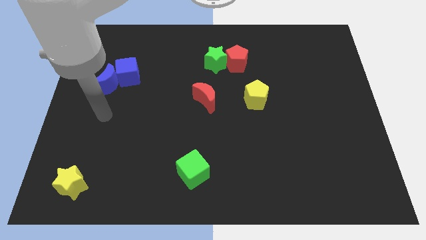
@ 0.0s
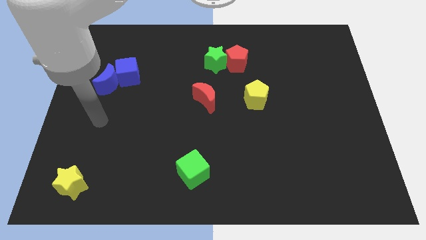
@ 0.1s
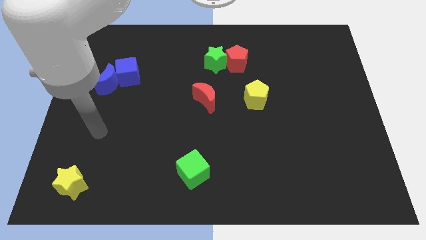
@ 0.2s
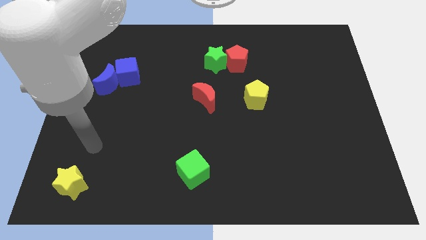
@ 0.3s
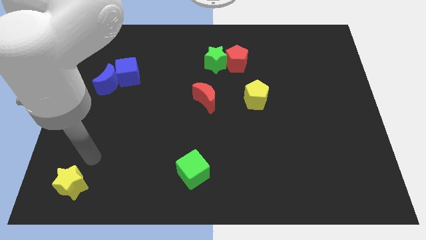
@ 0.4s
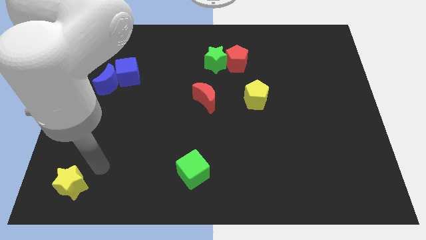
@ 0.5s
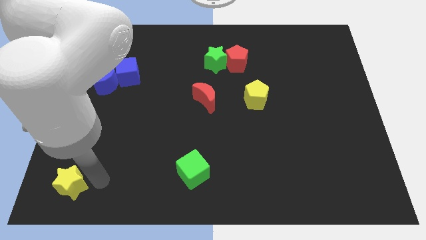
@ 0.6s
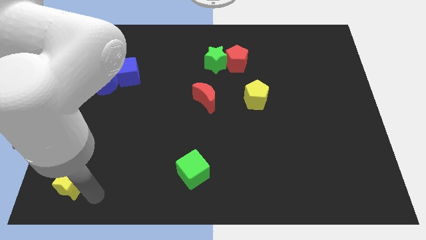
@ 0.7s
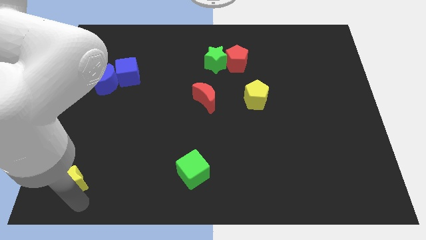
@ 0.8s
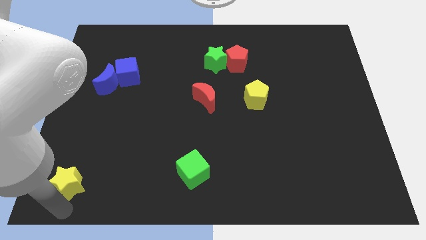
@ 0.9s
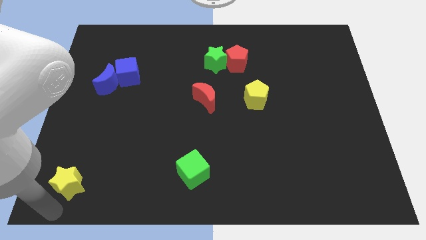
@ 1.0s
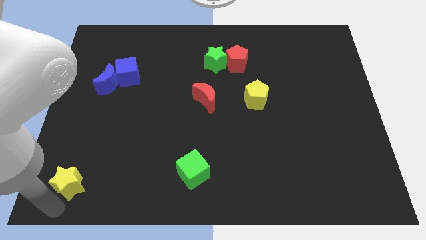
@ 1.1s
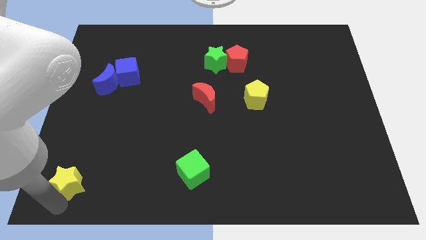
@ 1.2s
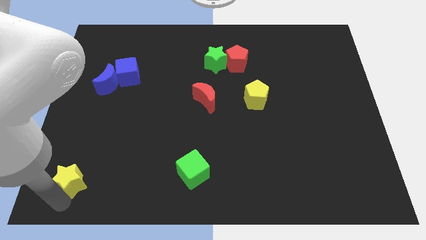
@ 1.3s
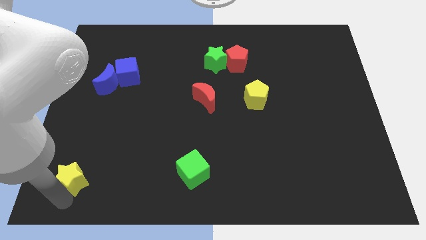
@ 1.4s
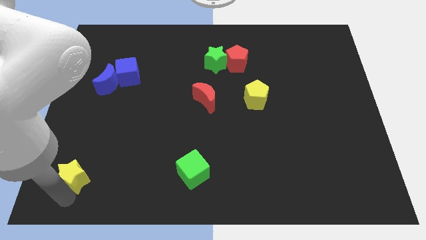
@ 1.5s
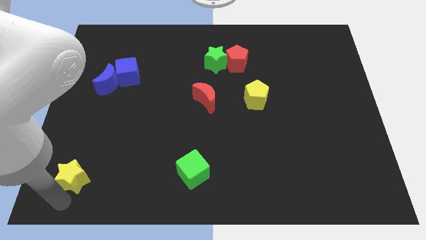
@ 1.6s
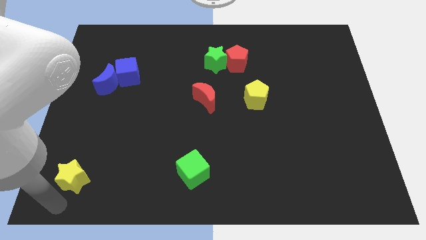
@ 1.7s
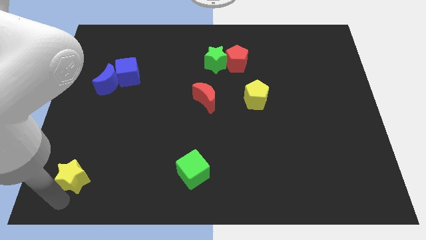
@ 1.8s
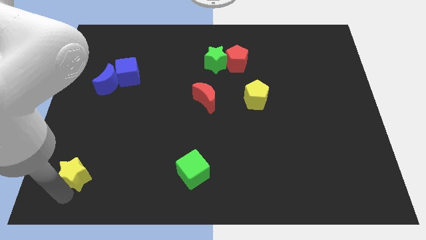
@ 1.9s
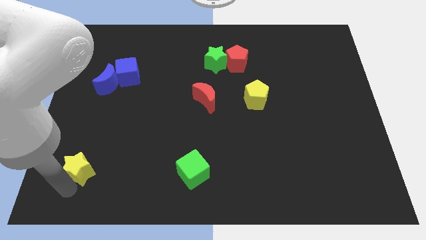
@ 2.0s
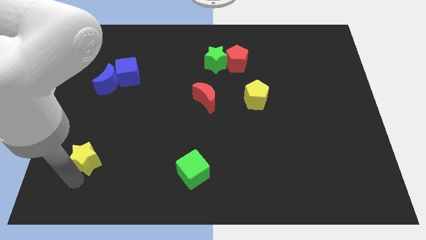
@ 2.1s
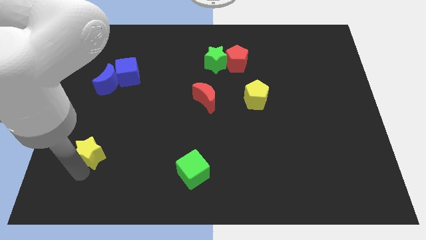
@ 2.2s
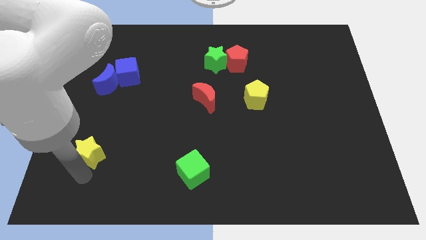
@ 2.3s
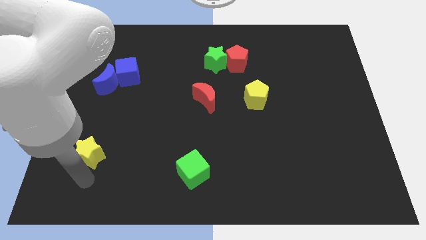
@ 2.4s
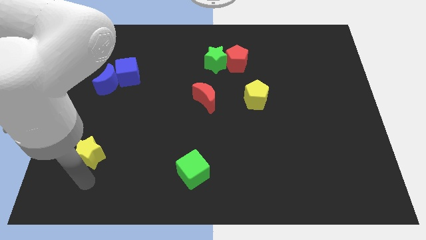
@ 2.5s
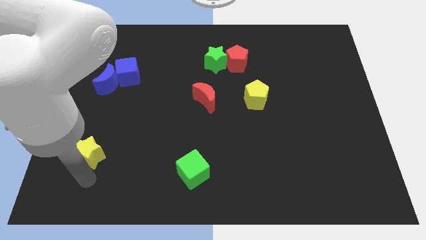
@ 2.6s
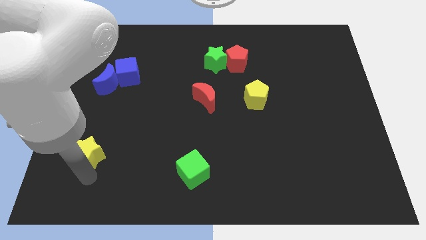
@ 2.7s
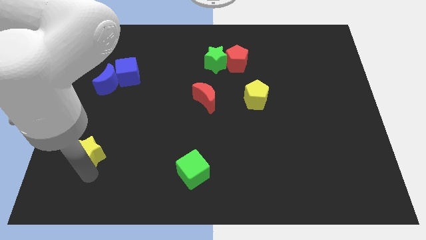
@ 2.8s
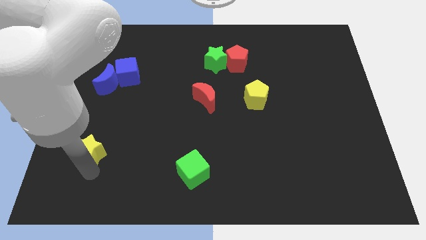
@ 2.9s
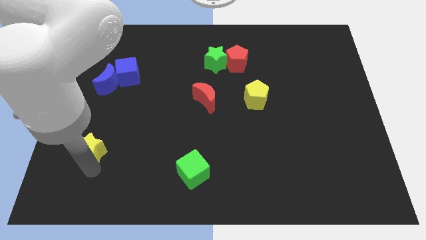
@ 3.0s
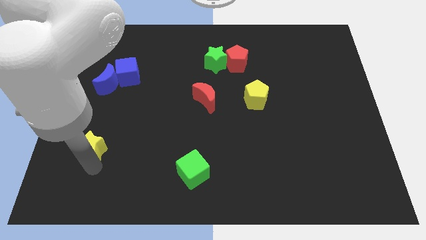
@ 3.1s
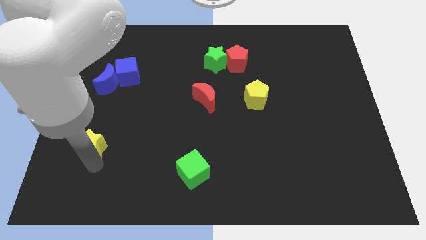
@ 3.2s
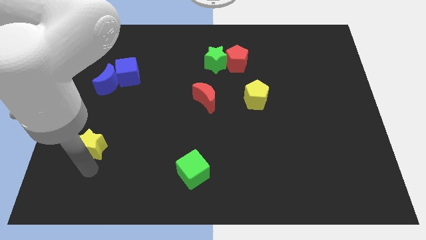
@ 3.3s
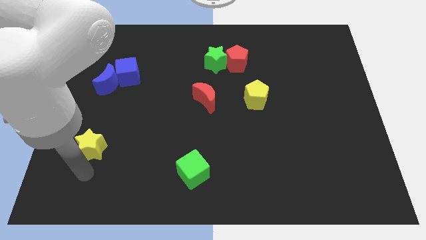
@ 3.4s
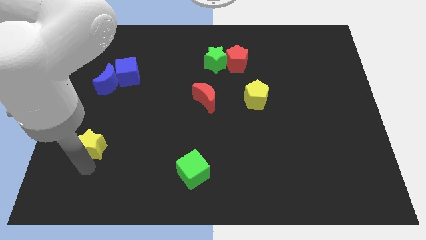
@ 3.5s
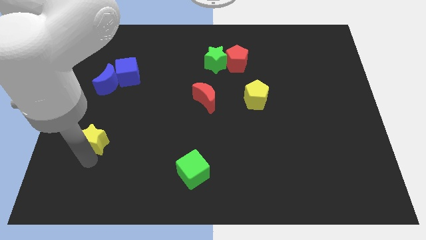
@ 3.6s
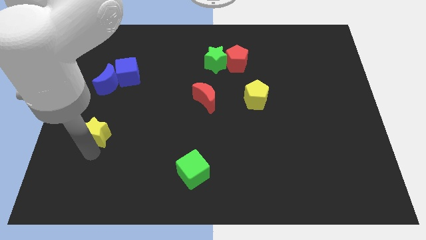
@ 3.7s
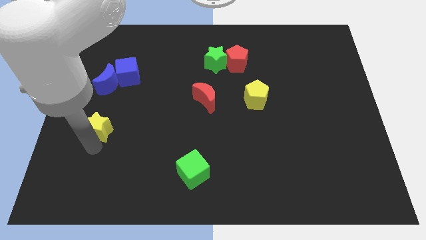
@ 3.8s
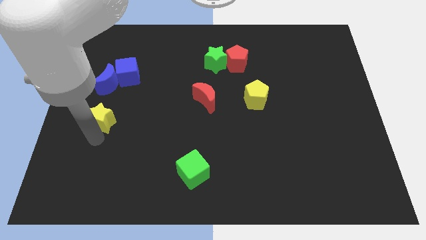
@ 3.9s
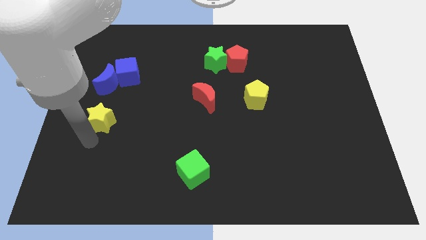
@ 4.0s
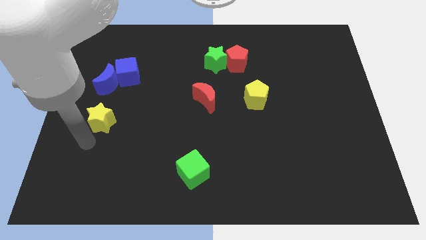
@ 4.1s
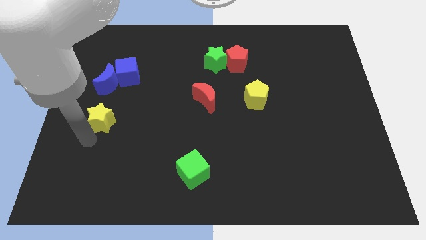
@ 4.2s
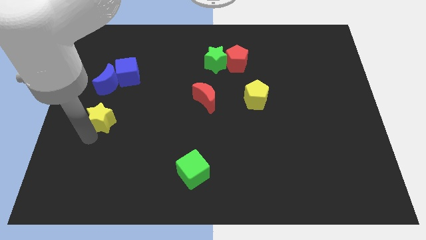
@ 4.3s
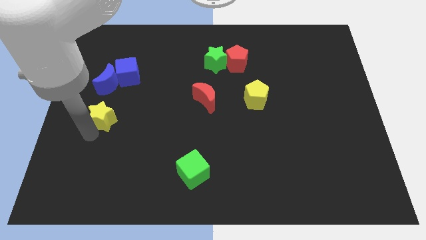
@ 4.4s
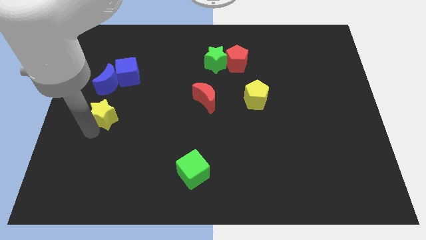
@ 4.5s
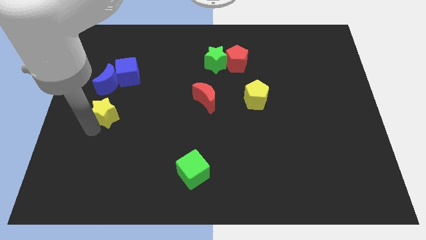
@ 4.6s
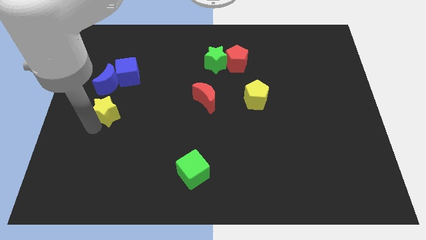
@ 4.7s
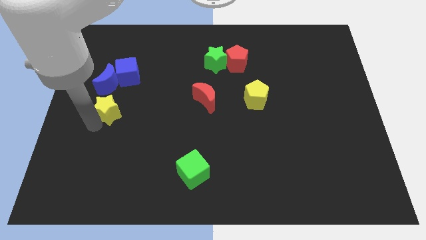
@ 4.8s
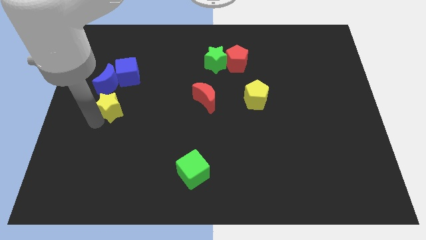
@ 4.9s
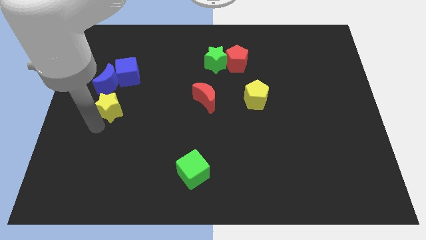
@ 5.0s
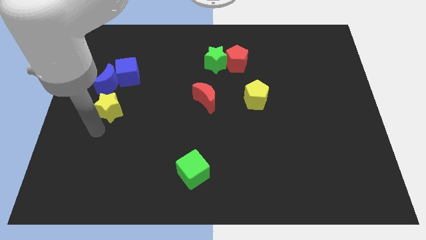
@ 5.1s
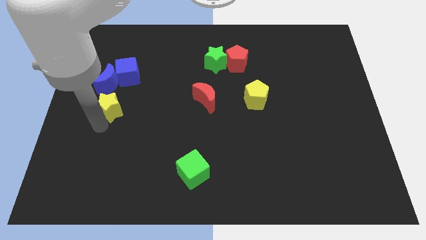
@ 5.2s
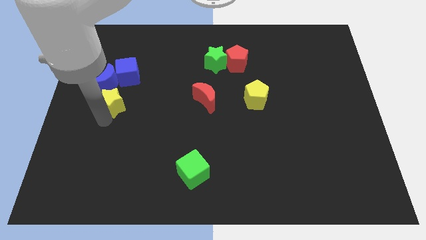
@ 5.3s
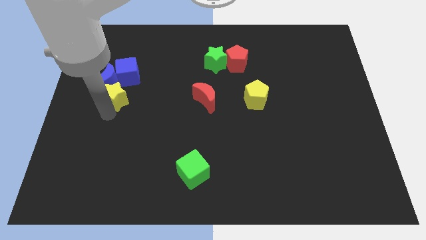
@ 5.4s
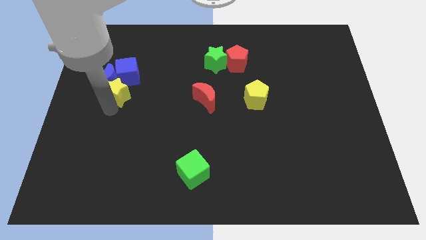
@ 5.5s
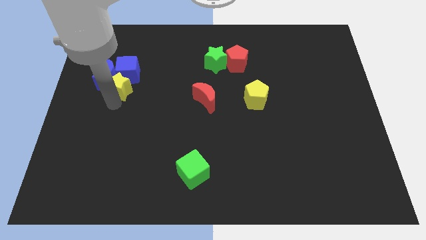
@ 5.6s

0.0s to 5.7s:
push the yellow star towards the blue cube

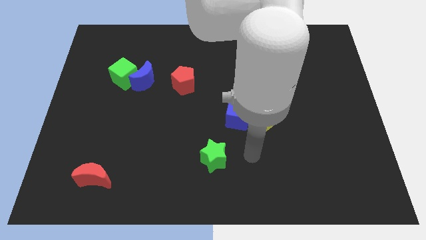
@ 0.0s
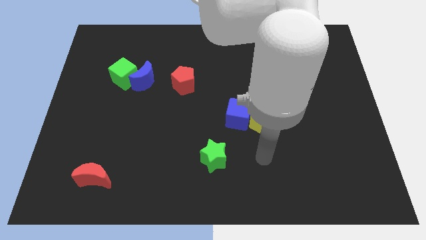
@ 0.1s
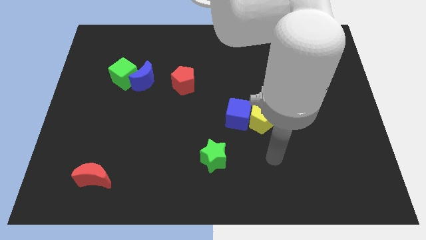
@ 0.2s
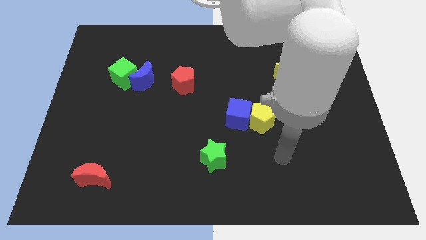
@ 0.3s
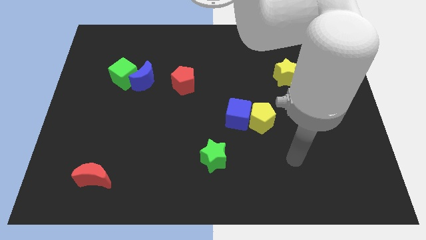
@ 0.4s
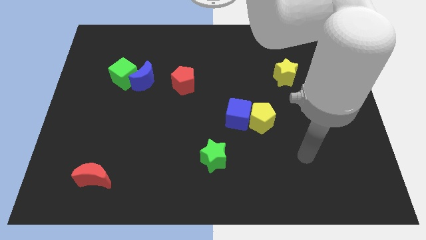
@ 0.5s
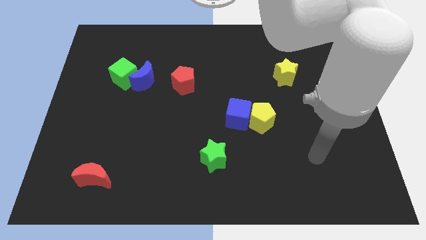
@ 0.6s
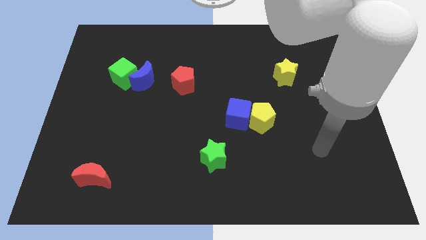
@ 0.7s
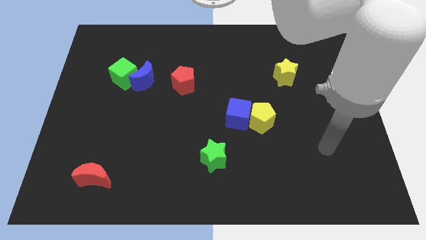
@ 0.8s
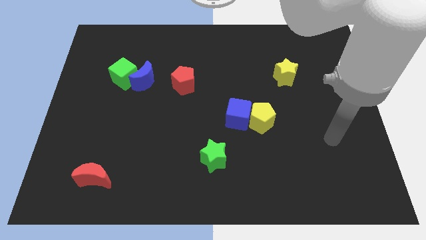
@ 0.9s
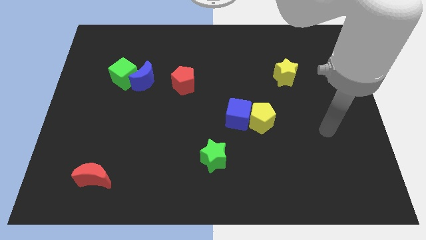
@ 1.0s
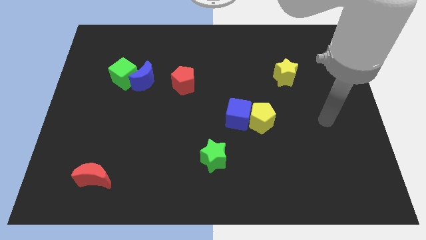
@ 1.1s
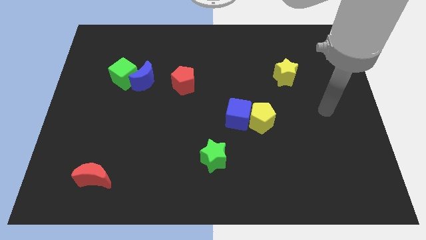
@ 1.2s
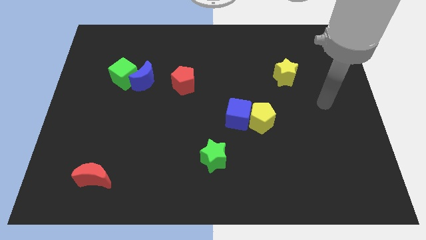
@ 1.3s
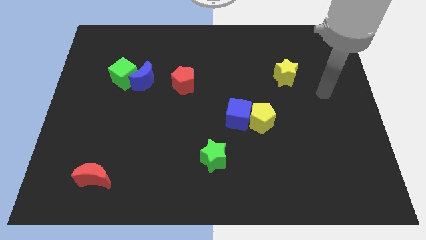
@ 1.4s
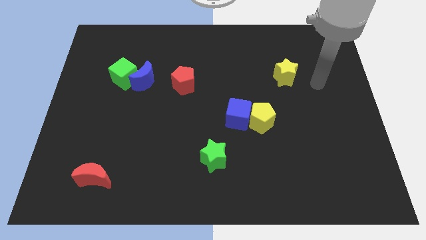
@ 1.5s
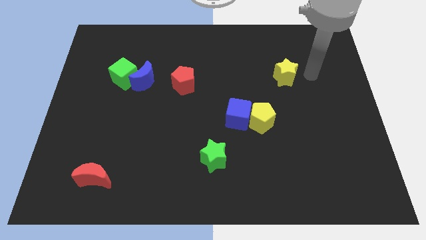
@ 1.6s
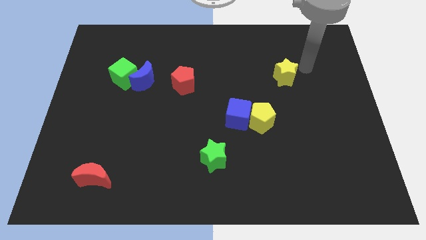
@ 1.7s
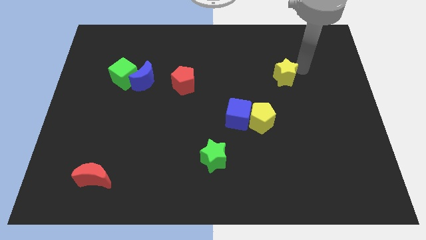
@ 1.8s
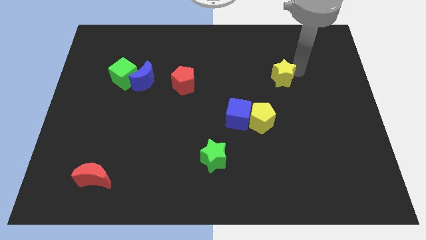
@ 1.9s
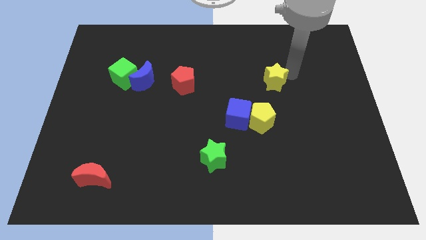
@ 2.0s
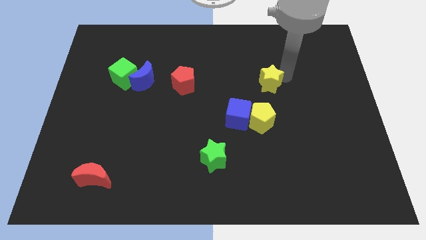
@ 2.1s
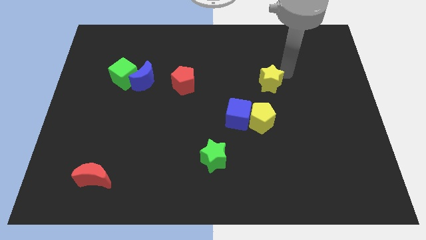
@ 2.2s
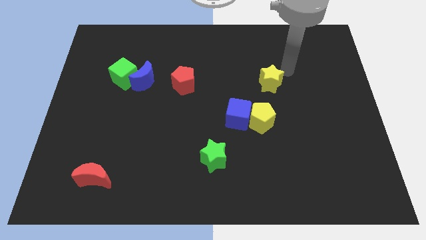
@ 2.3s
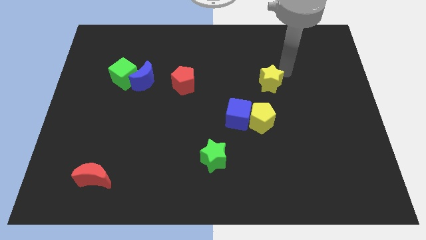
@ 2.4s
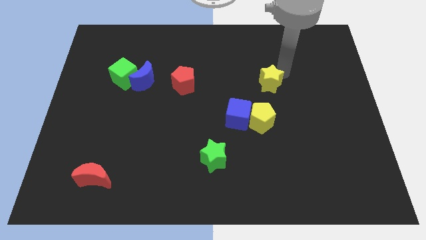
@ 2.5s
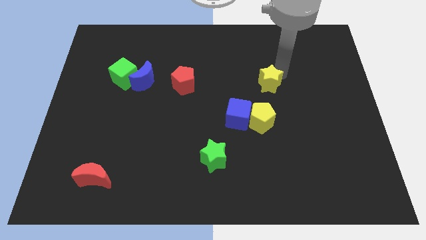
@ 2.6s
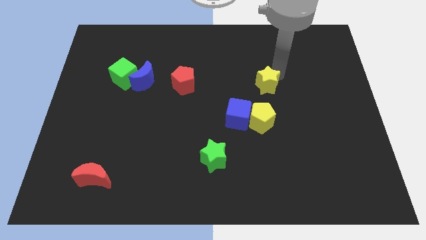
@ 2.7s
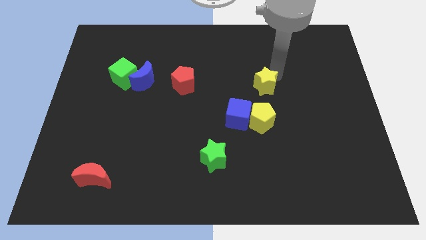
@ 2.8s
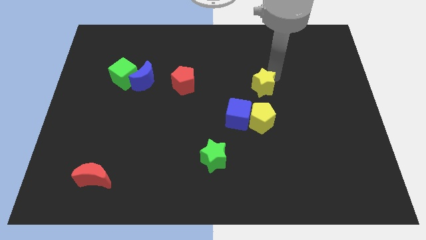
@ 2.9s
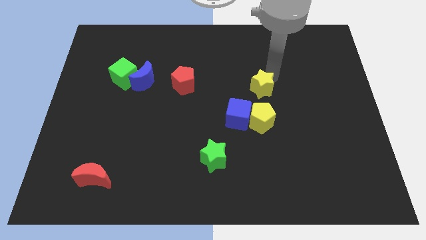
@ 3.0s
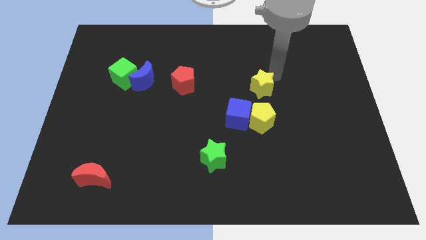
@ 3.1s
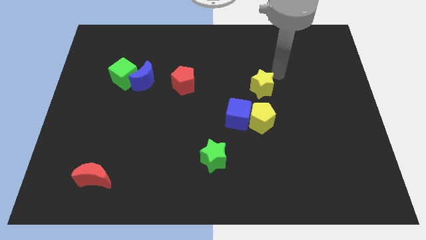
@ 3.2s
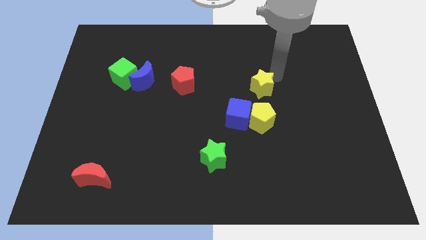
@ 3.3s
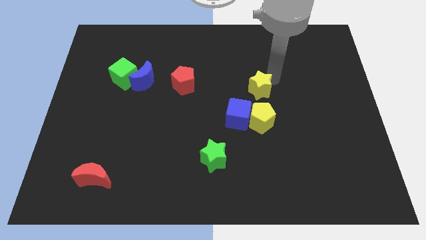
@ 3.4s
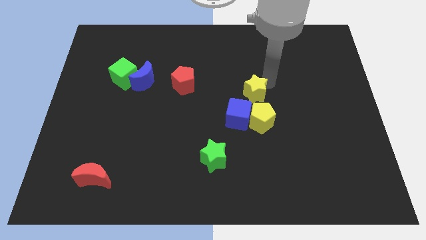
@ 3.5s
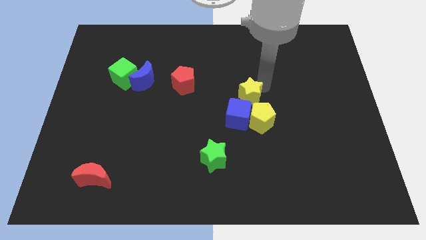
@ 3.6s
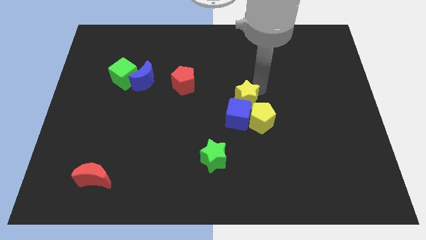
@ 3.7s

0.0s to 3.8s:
slide the yellow star close to the blue cube
